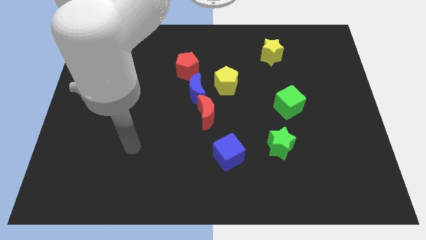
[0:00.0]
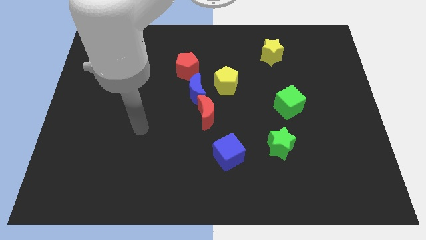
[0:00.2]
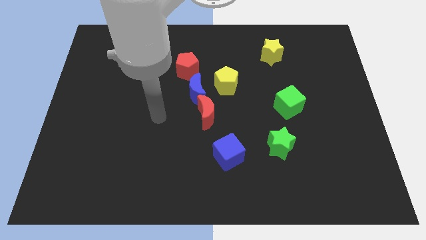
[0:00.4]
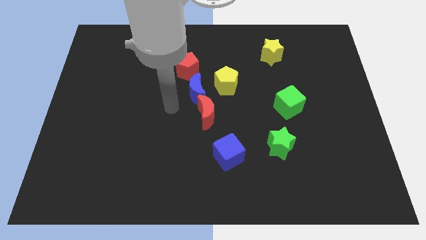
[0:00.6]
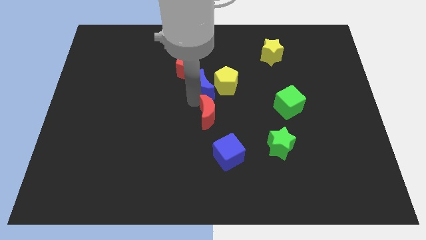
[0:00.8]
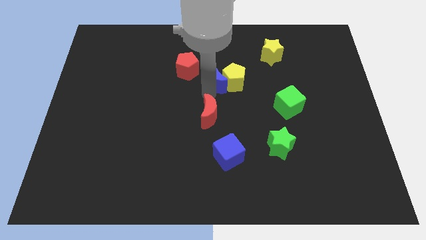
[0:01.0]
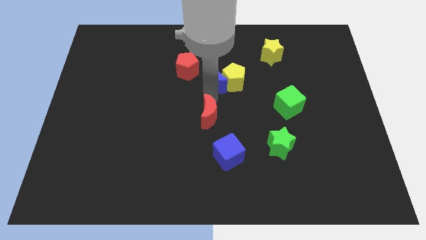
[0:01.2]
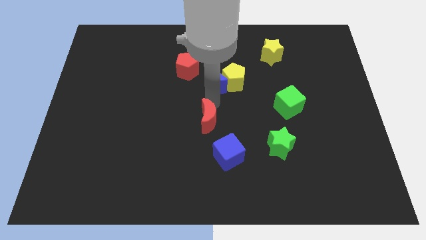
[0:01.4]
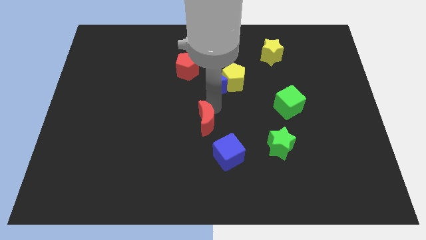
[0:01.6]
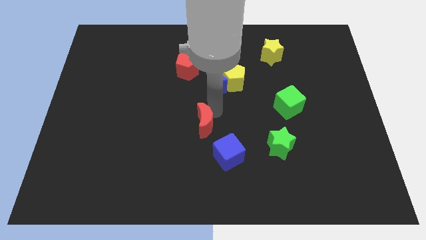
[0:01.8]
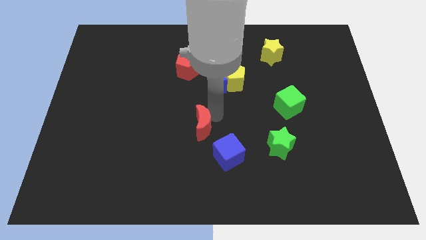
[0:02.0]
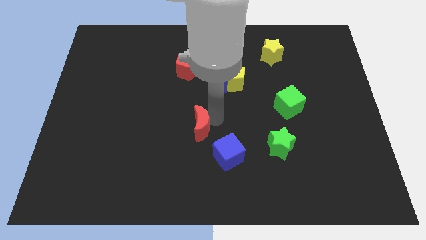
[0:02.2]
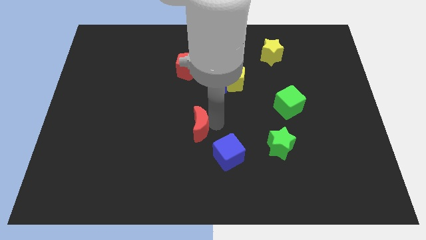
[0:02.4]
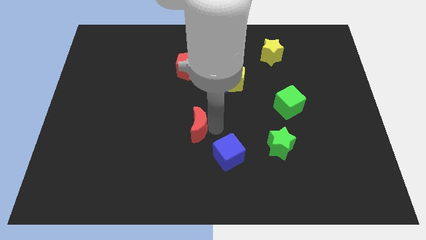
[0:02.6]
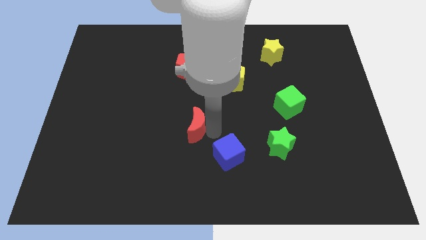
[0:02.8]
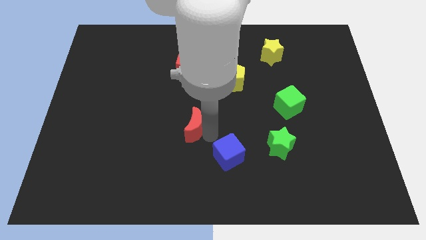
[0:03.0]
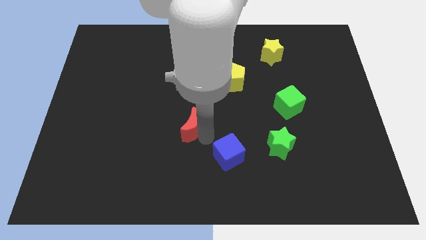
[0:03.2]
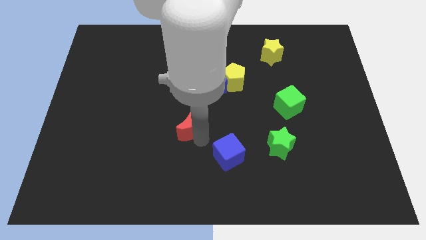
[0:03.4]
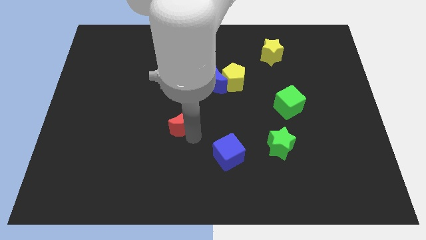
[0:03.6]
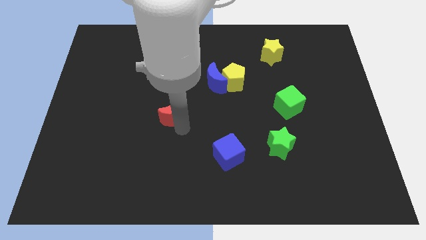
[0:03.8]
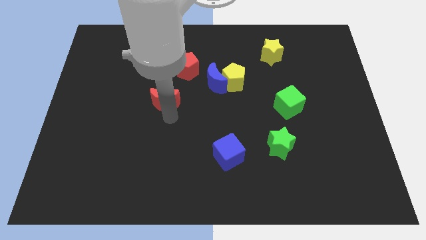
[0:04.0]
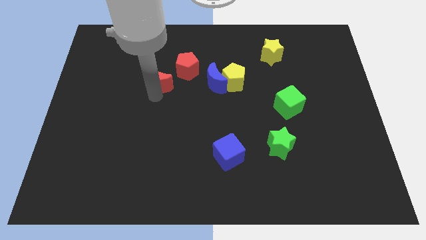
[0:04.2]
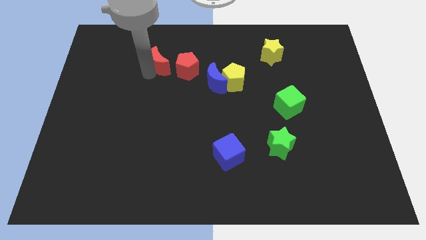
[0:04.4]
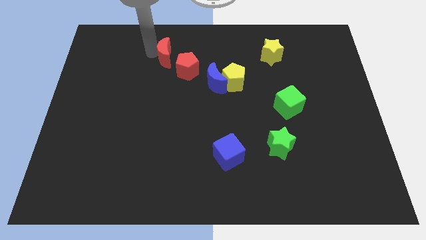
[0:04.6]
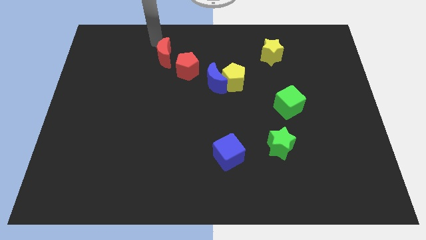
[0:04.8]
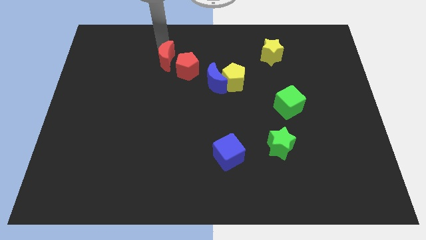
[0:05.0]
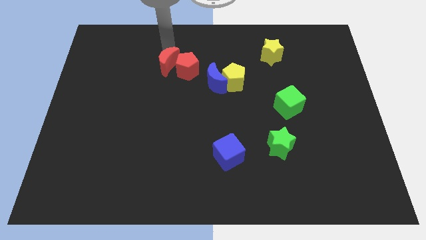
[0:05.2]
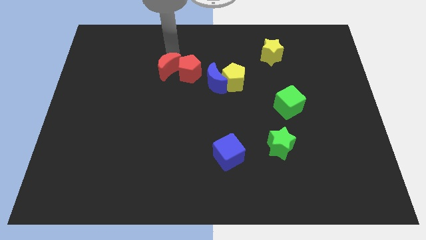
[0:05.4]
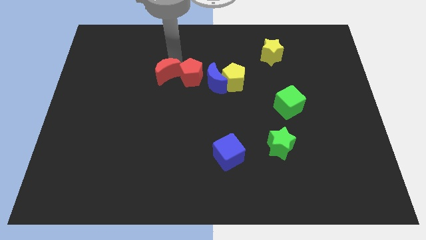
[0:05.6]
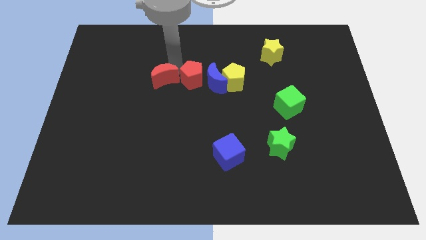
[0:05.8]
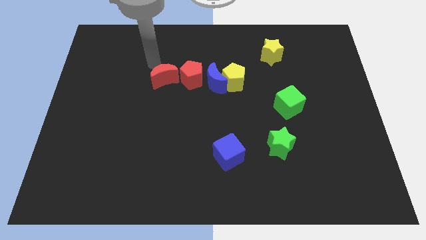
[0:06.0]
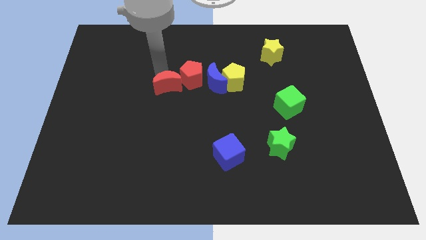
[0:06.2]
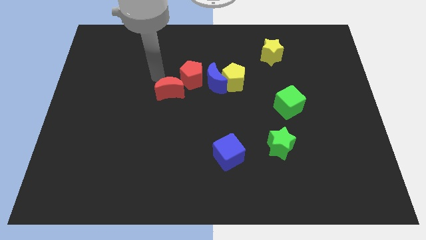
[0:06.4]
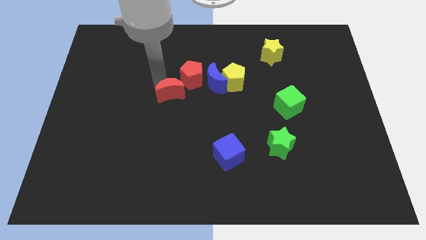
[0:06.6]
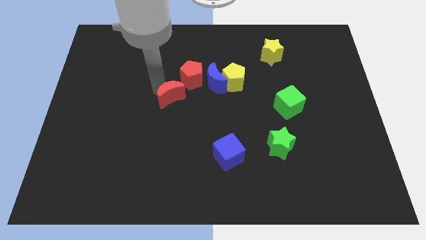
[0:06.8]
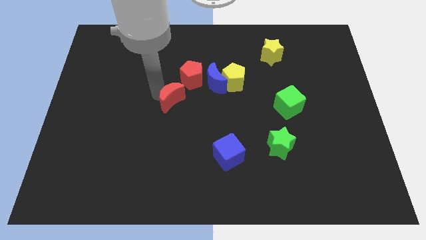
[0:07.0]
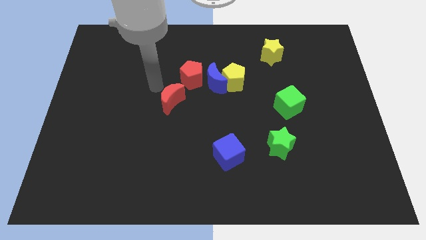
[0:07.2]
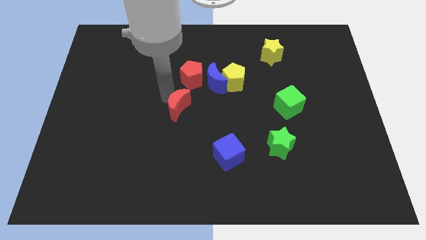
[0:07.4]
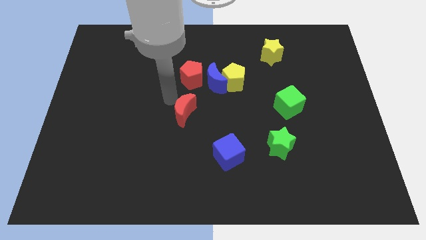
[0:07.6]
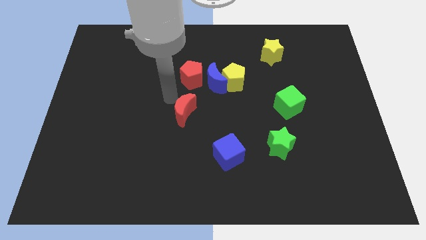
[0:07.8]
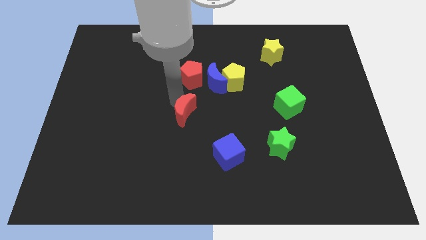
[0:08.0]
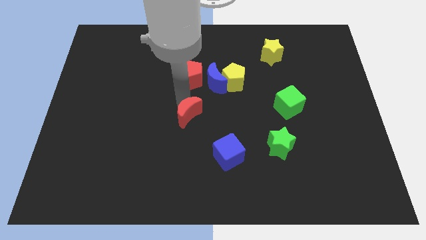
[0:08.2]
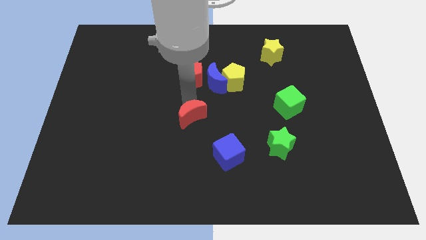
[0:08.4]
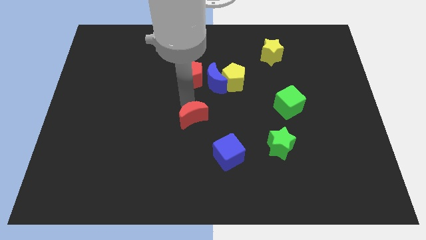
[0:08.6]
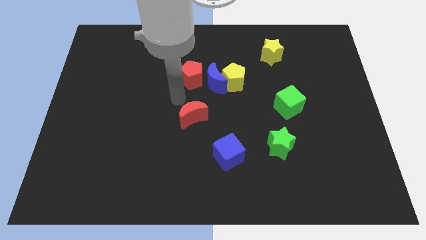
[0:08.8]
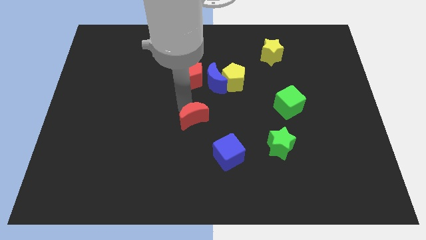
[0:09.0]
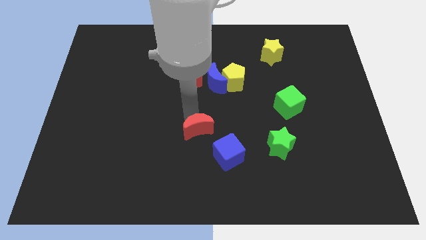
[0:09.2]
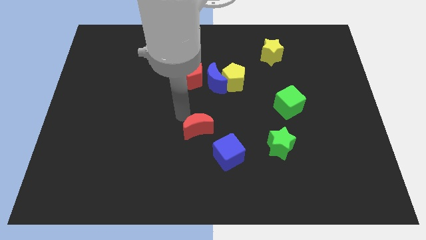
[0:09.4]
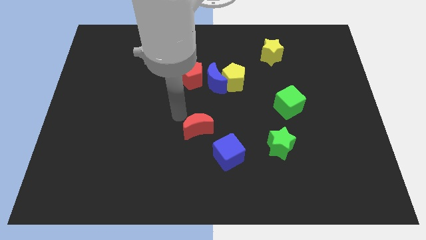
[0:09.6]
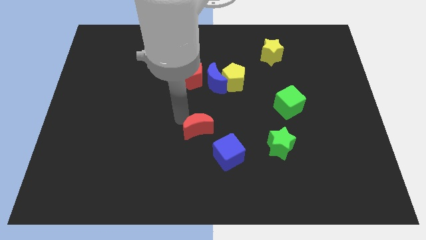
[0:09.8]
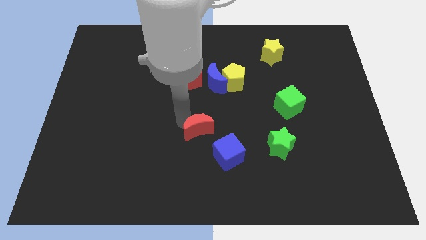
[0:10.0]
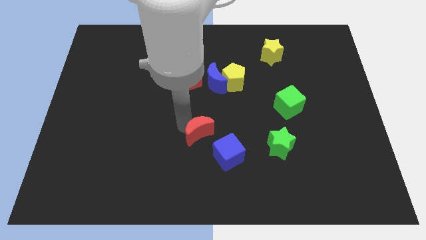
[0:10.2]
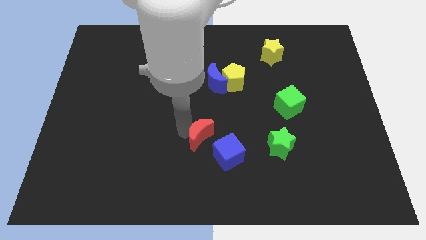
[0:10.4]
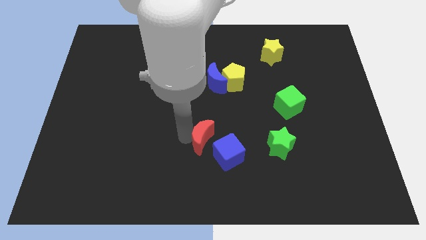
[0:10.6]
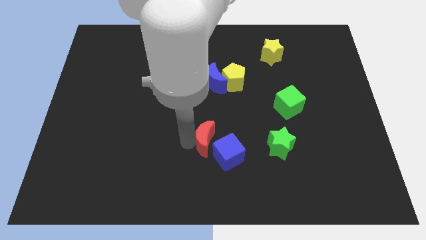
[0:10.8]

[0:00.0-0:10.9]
put the red moon left of the green star

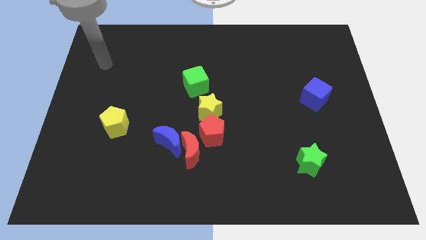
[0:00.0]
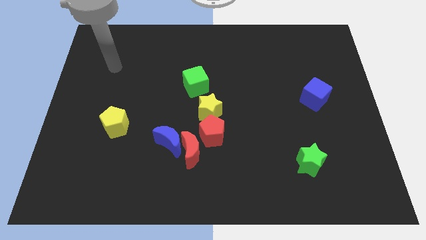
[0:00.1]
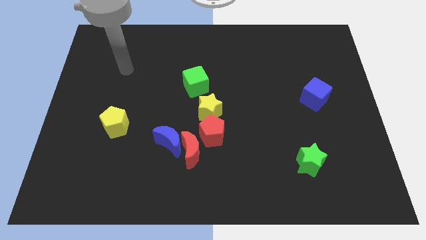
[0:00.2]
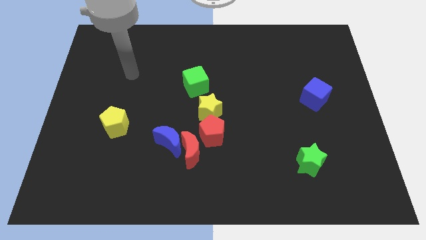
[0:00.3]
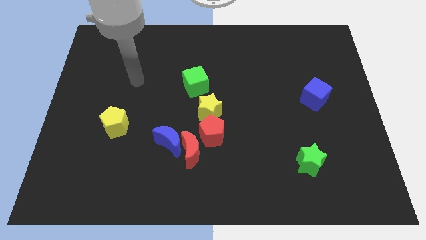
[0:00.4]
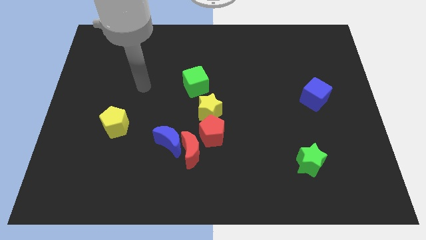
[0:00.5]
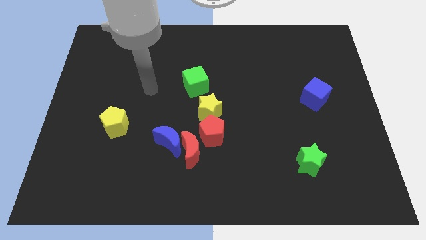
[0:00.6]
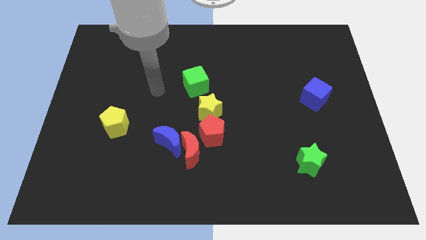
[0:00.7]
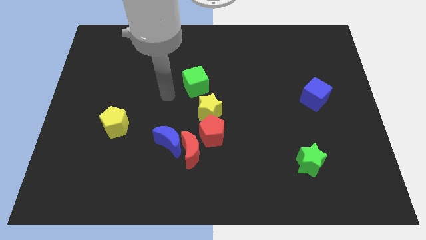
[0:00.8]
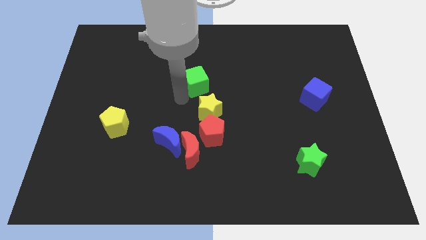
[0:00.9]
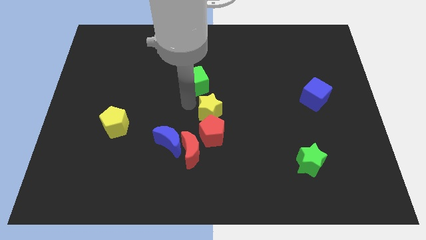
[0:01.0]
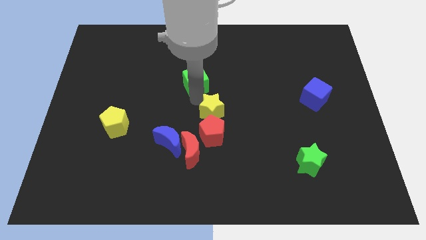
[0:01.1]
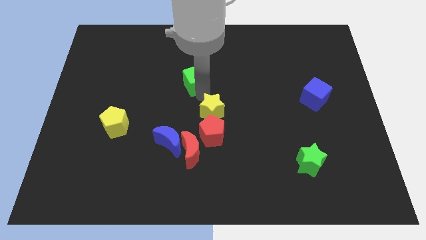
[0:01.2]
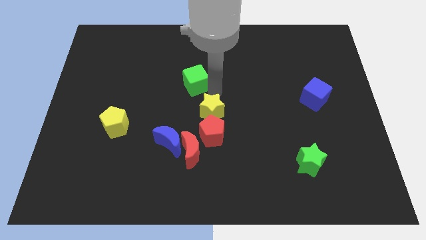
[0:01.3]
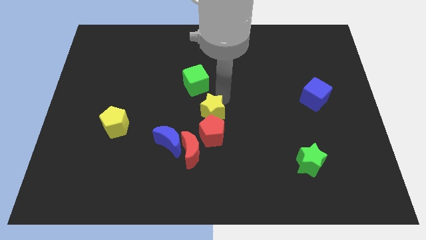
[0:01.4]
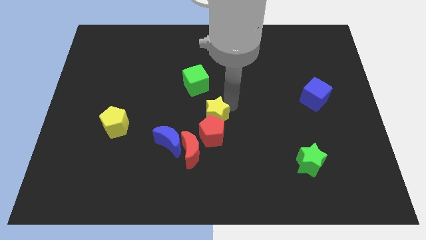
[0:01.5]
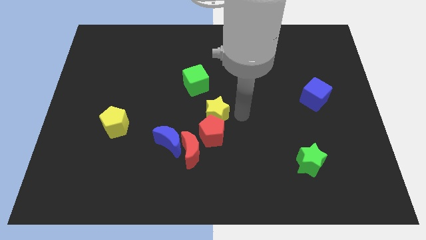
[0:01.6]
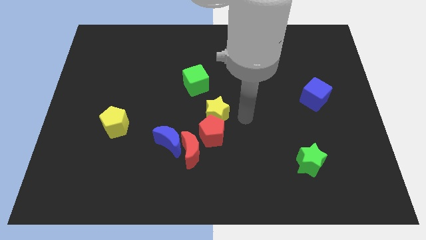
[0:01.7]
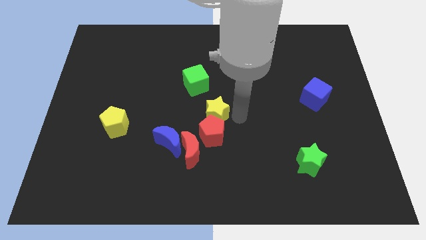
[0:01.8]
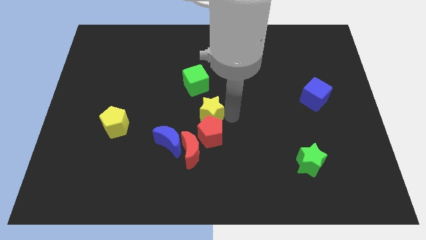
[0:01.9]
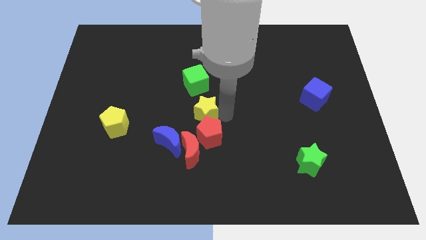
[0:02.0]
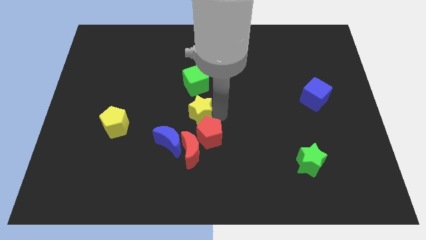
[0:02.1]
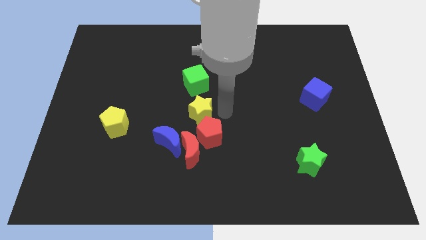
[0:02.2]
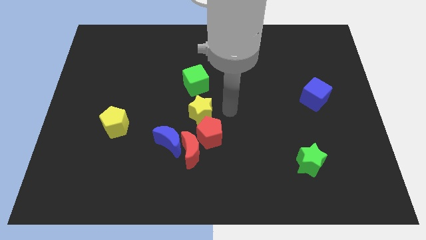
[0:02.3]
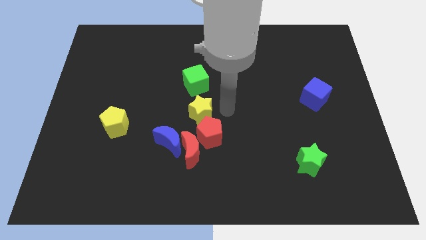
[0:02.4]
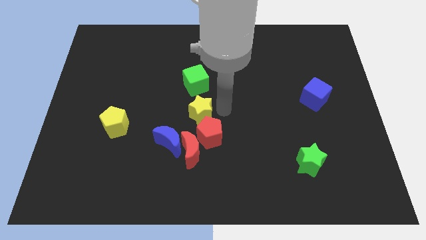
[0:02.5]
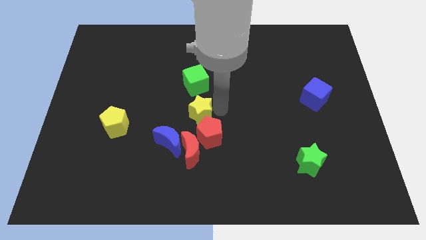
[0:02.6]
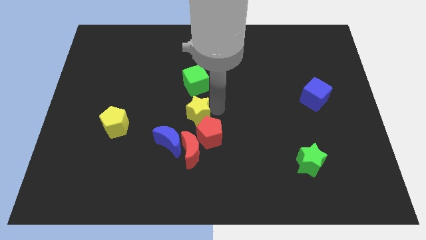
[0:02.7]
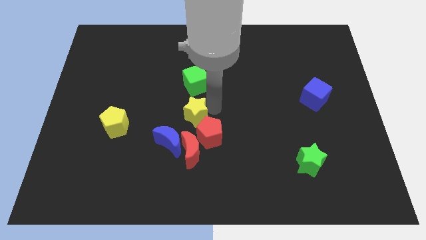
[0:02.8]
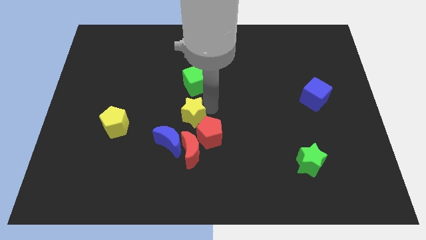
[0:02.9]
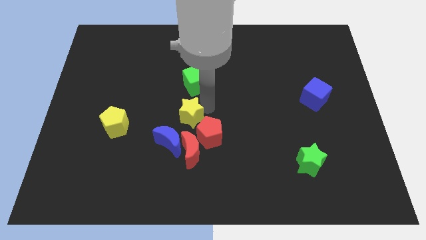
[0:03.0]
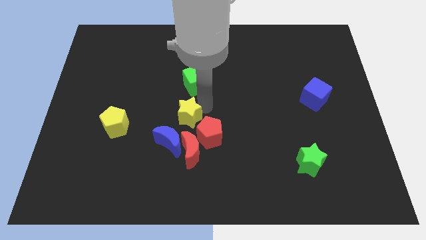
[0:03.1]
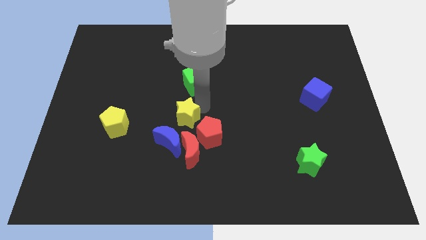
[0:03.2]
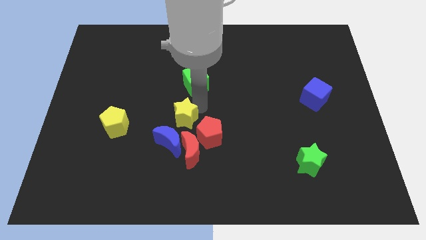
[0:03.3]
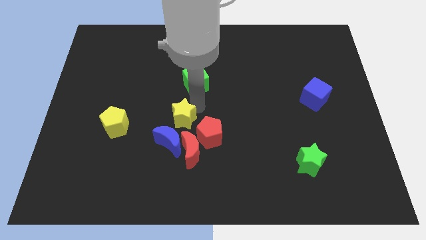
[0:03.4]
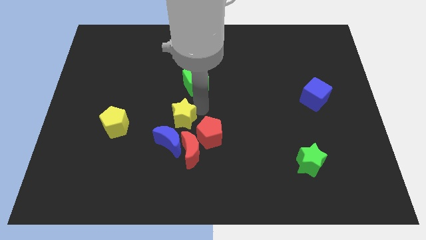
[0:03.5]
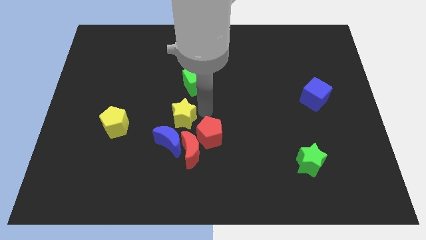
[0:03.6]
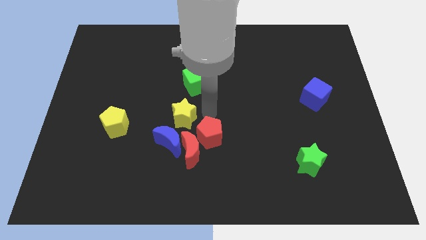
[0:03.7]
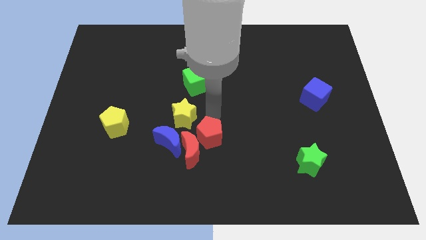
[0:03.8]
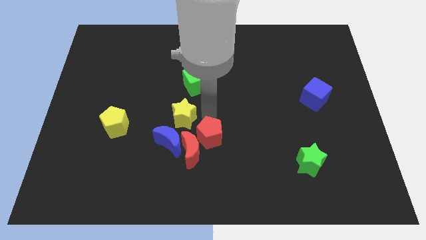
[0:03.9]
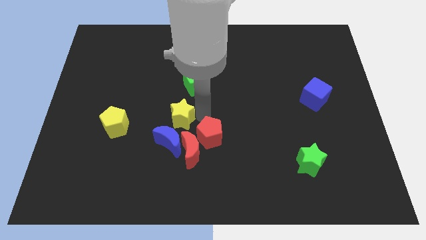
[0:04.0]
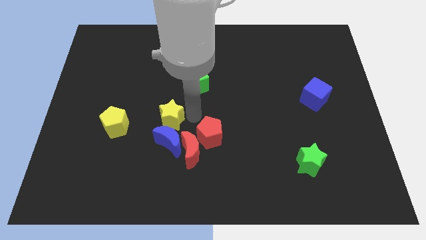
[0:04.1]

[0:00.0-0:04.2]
push the yellow star to the top left side of the blue moon
